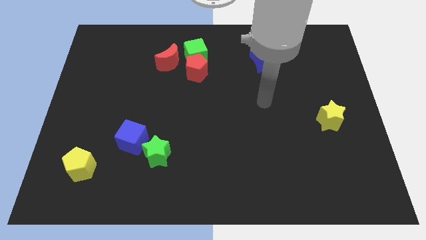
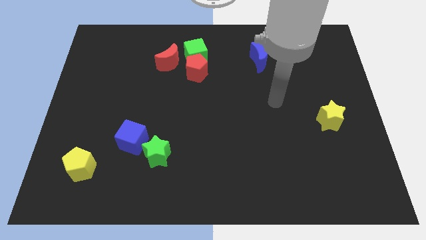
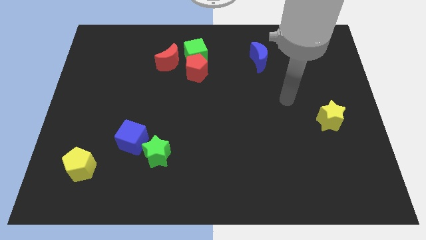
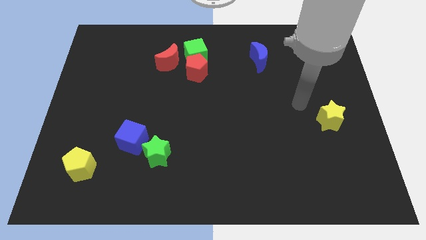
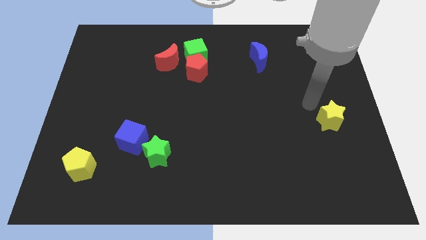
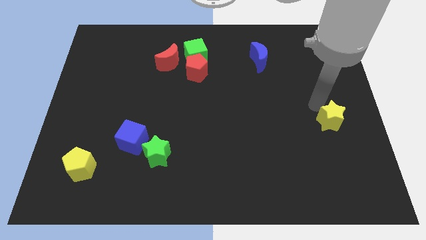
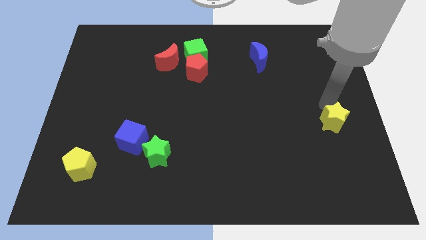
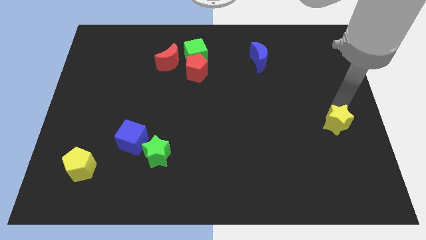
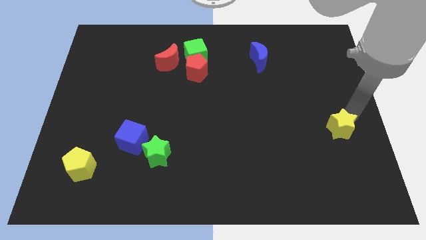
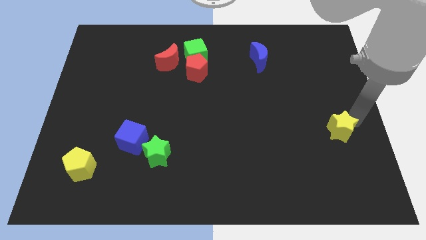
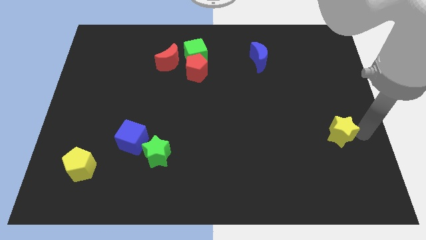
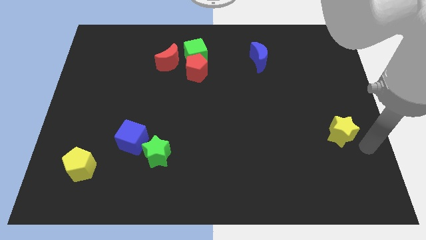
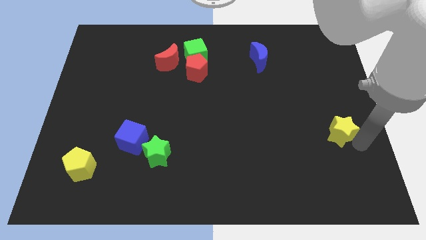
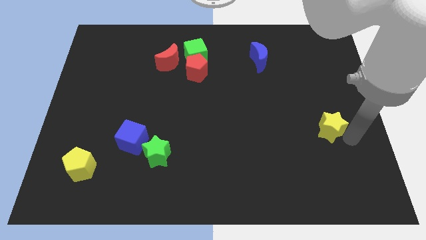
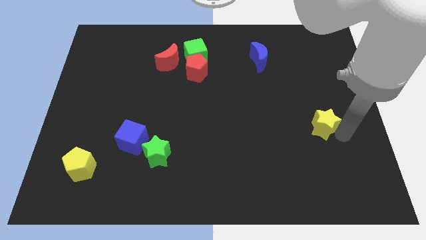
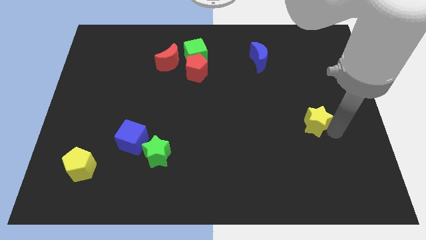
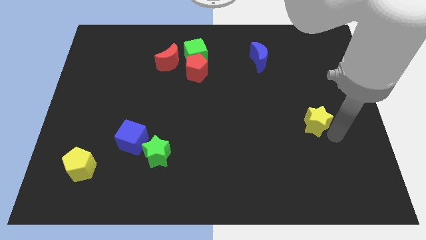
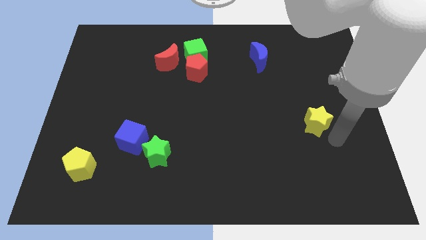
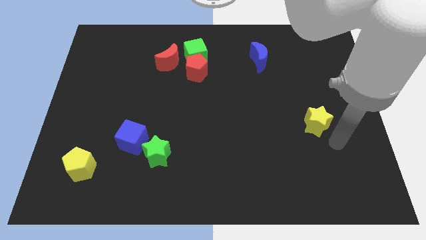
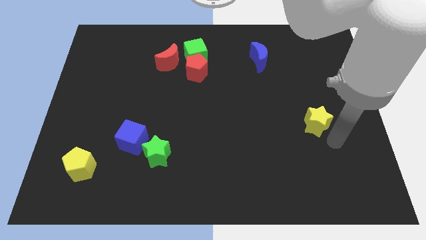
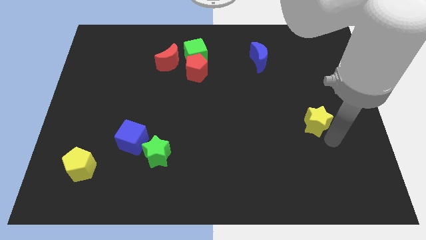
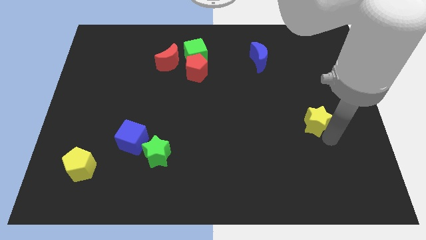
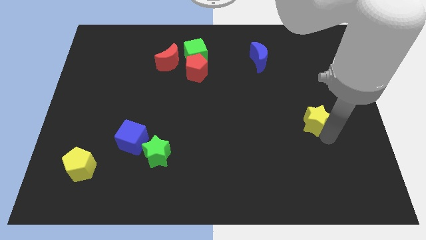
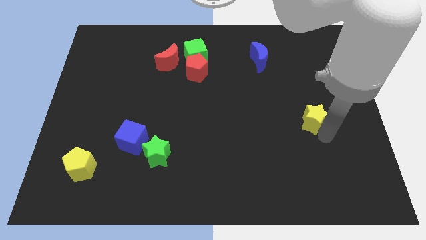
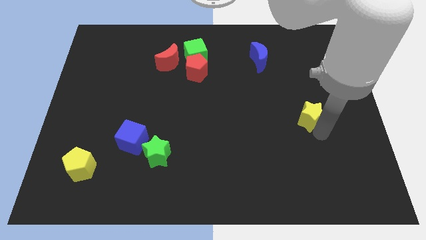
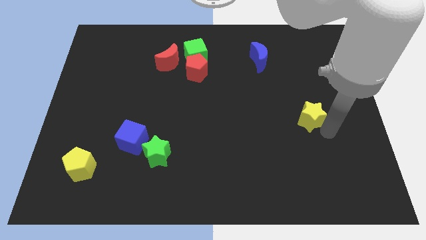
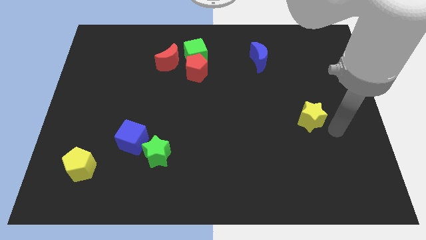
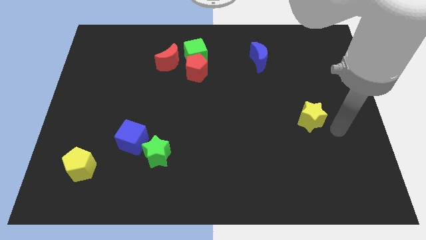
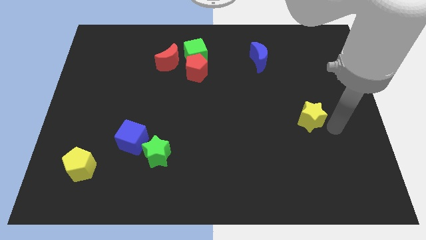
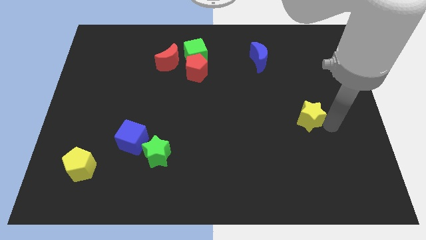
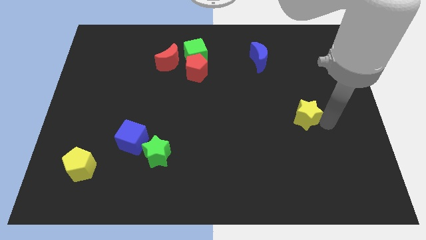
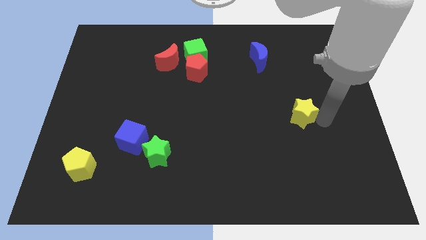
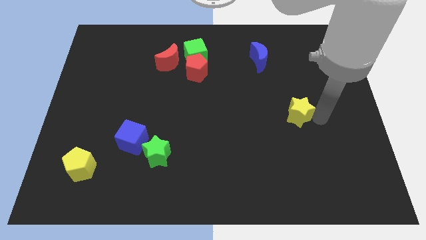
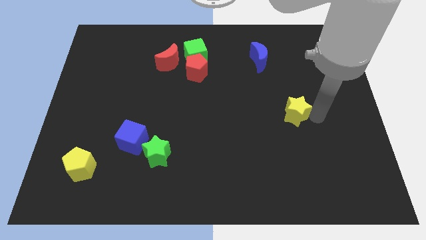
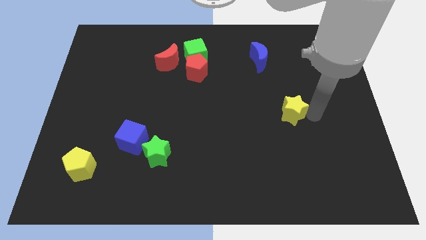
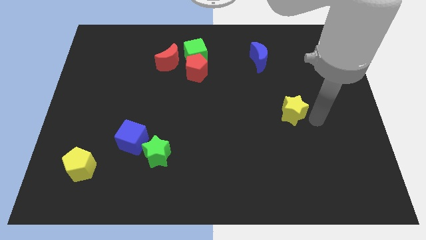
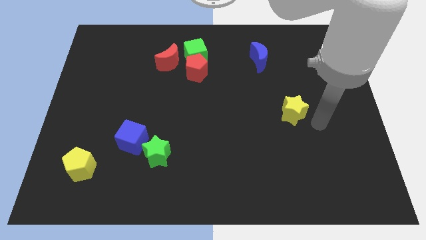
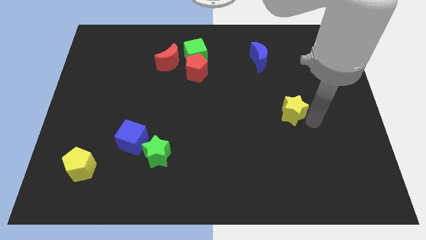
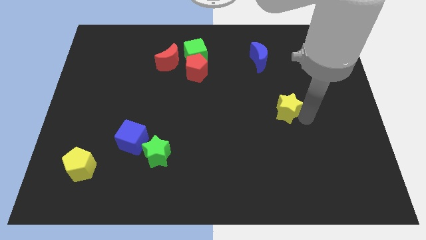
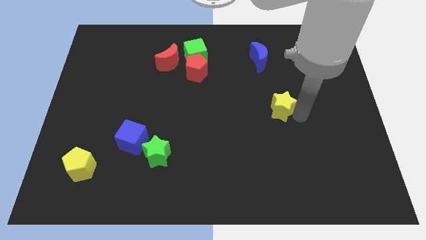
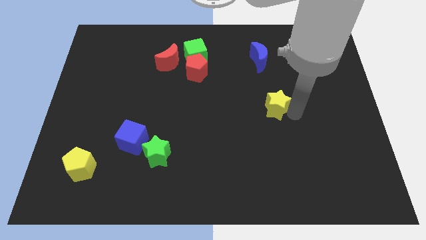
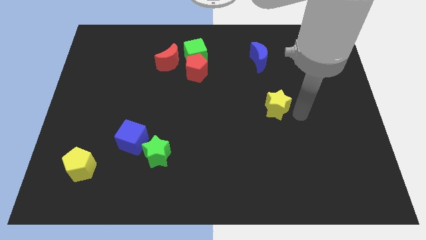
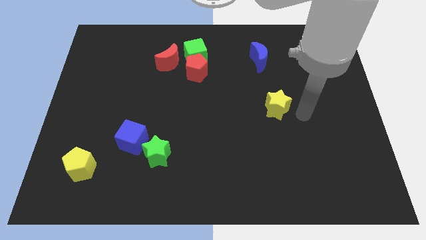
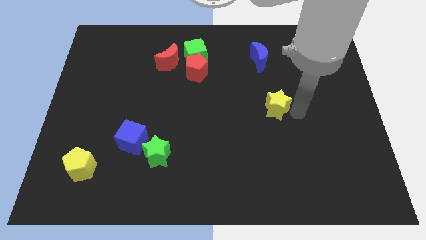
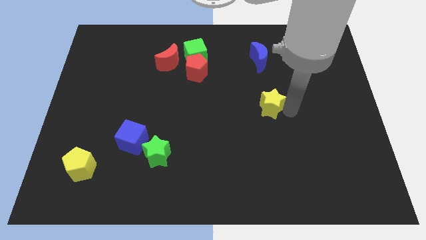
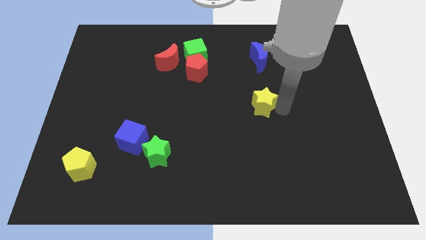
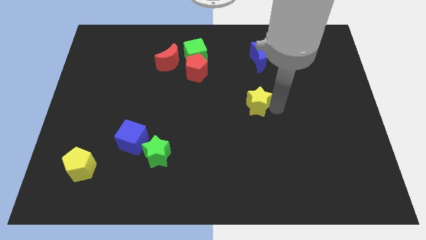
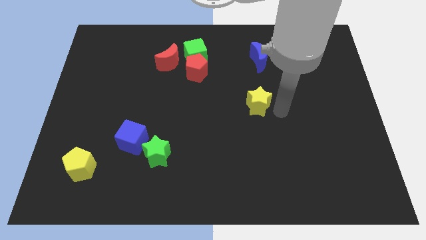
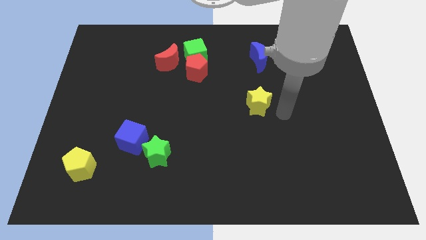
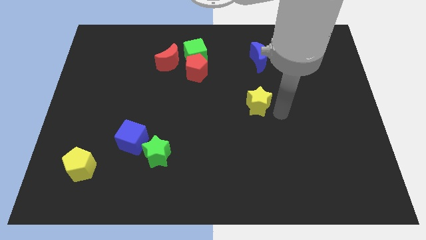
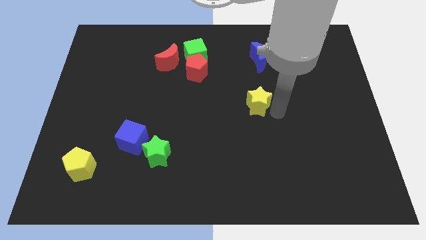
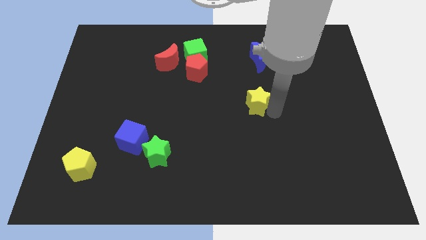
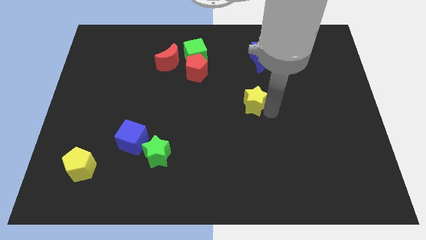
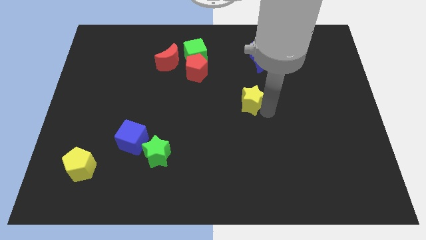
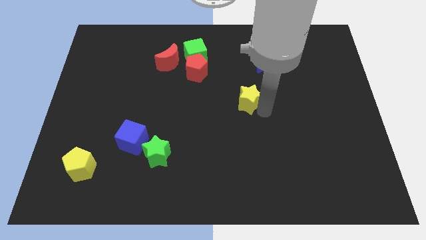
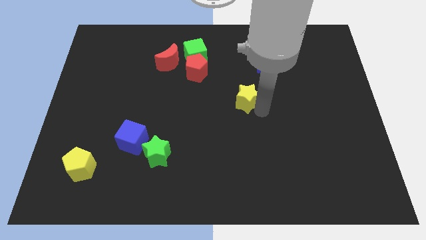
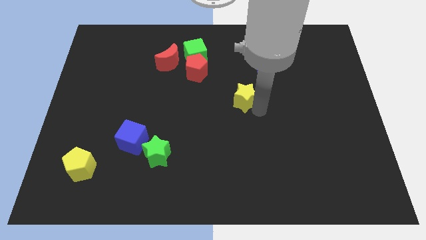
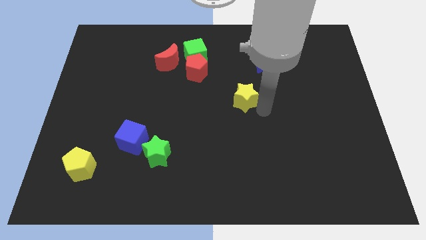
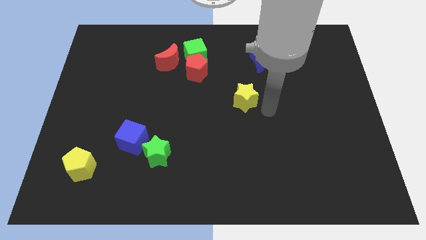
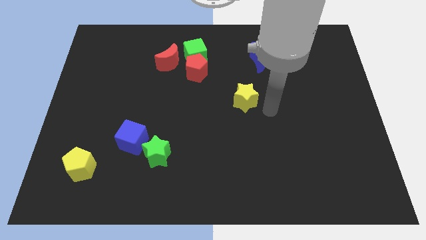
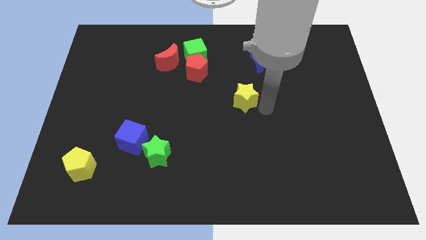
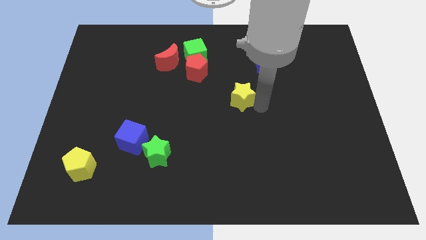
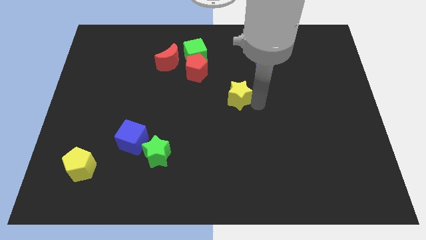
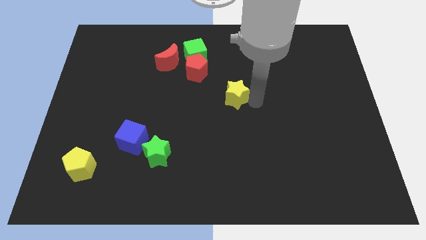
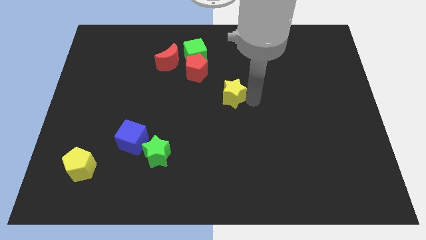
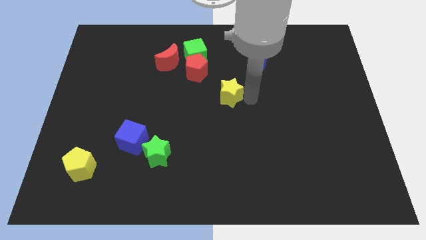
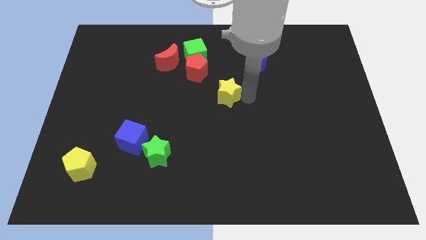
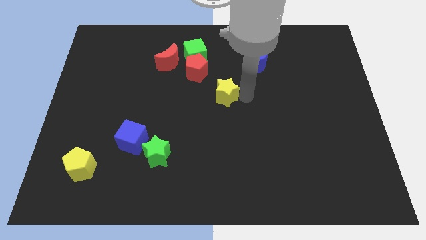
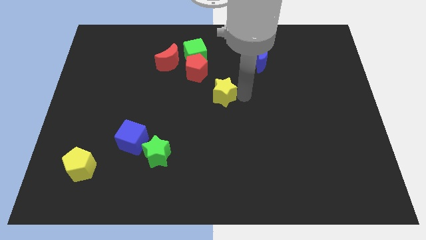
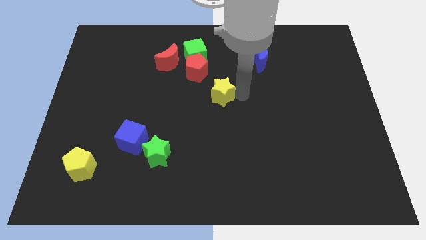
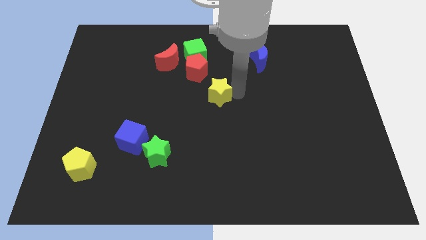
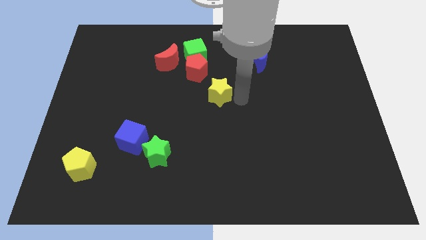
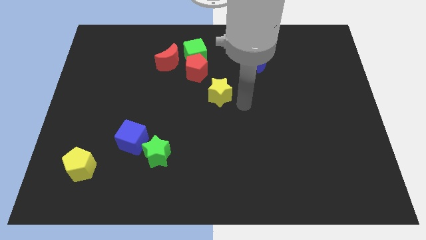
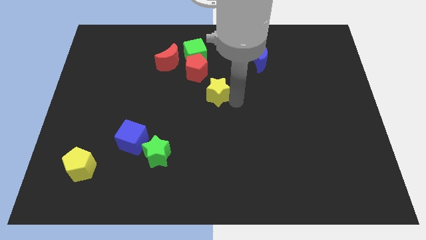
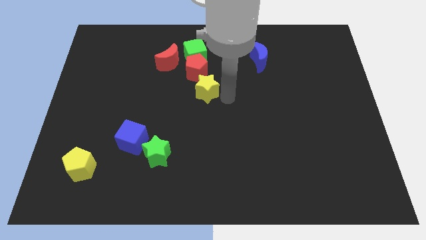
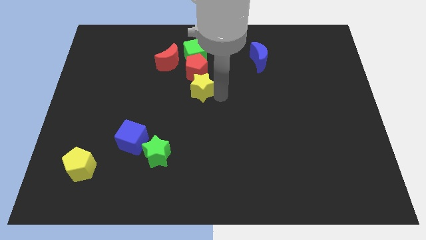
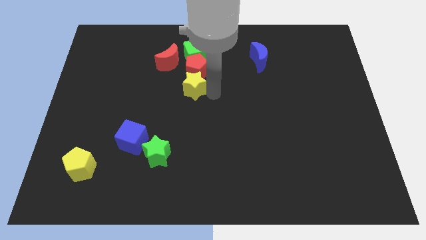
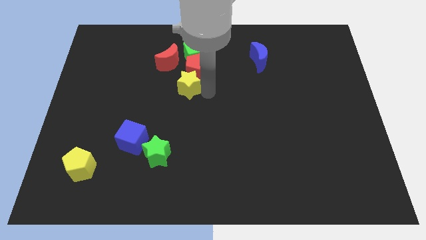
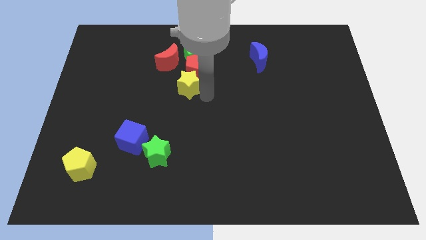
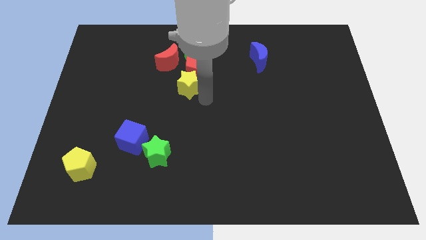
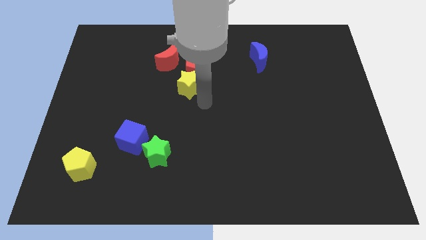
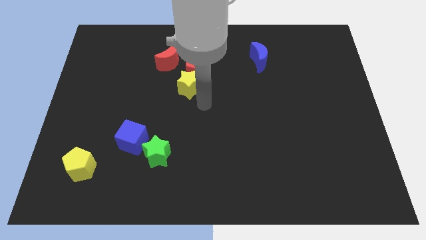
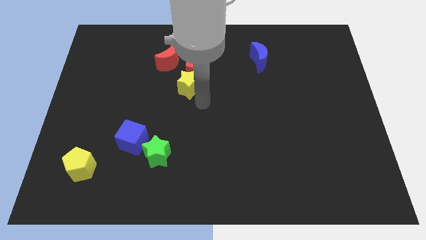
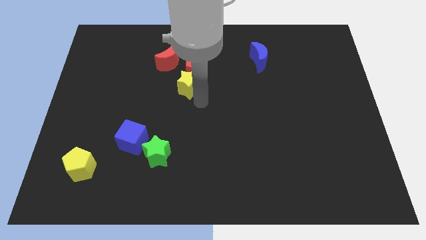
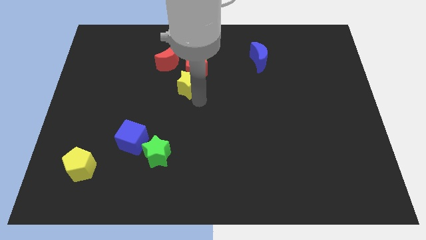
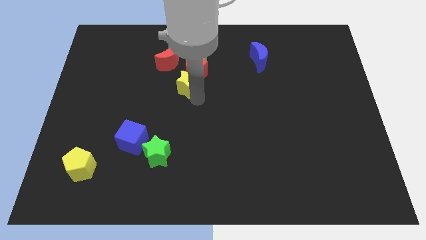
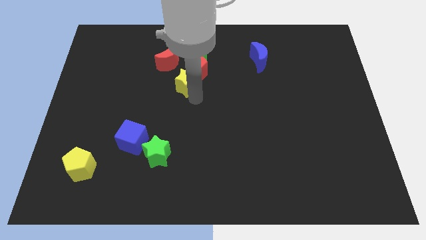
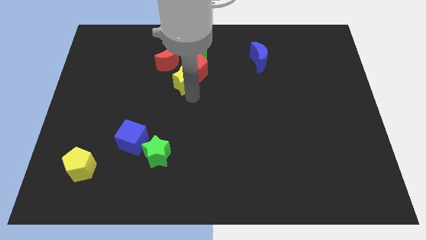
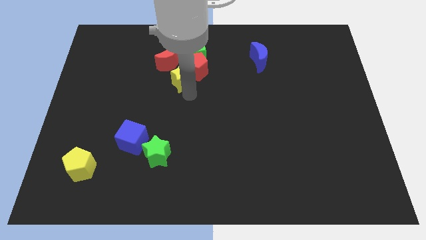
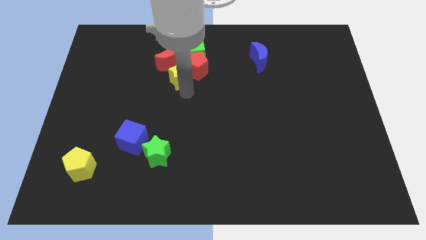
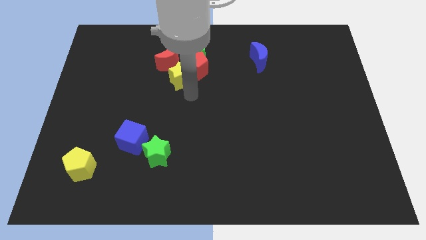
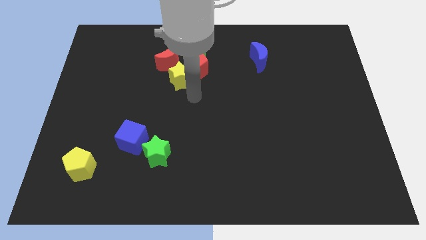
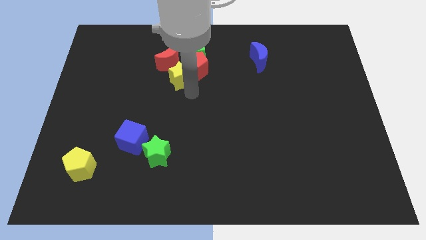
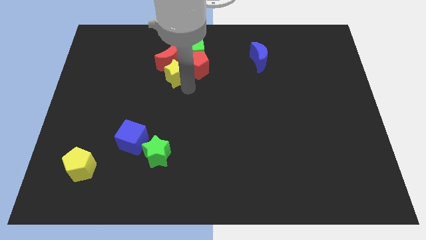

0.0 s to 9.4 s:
put the yellow star close to the red moon
